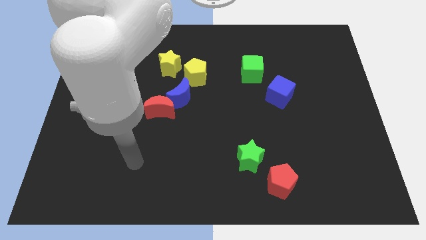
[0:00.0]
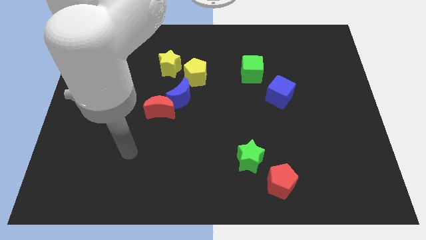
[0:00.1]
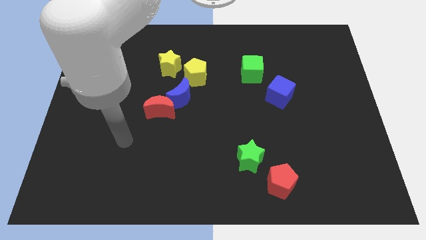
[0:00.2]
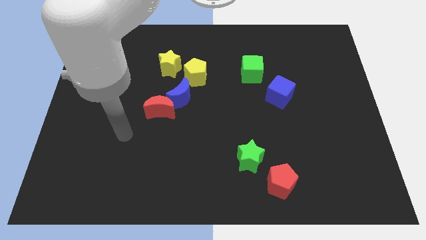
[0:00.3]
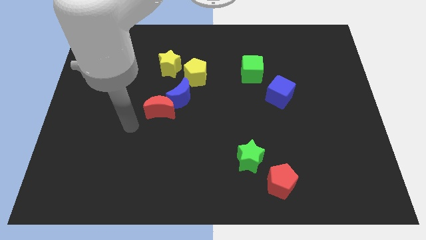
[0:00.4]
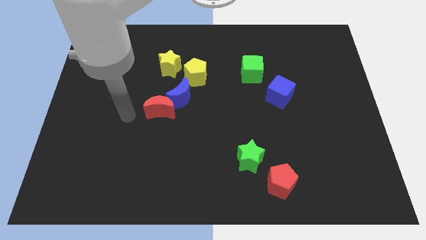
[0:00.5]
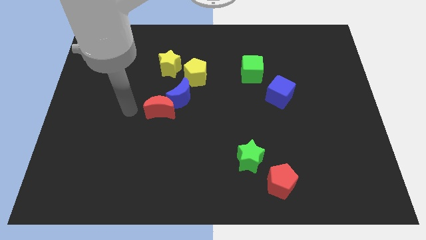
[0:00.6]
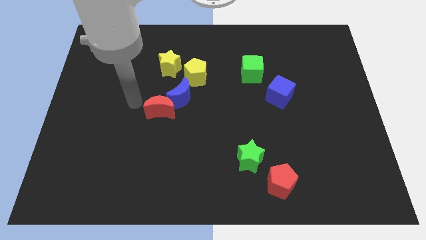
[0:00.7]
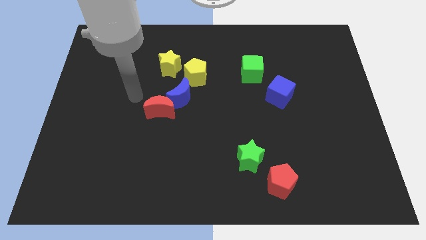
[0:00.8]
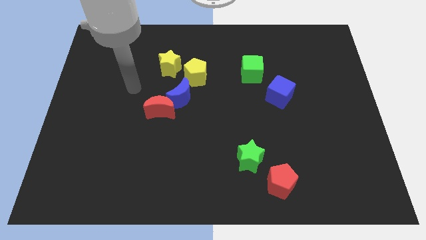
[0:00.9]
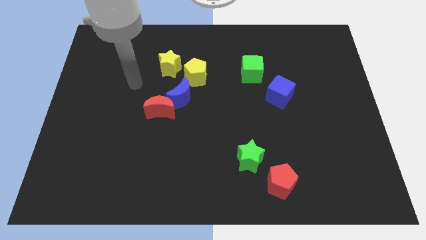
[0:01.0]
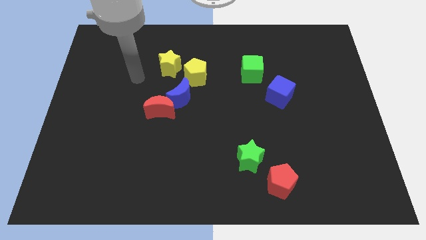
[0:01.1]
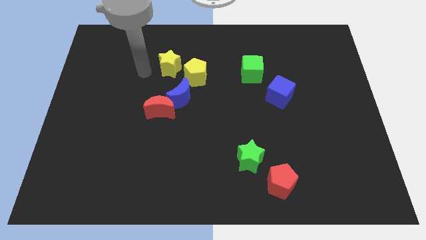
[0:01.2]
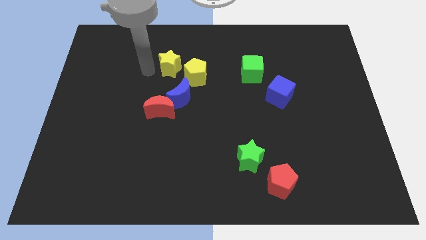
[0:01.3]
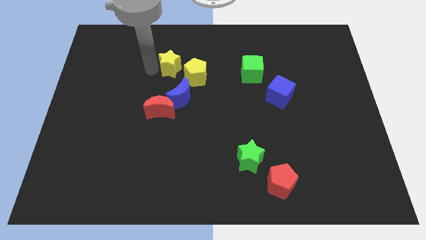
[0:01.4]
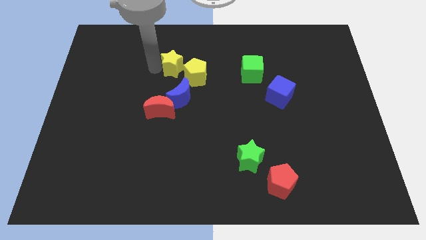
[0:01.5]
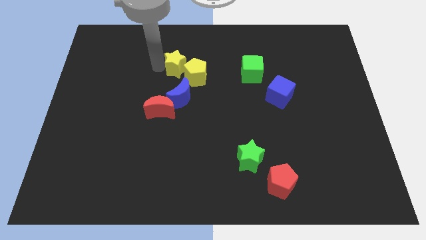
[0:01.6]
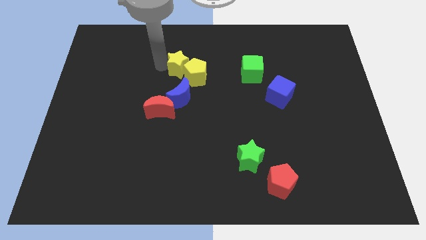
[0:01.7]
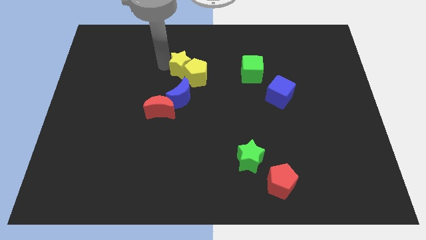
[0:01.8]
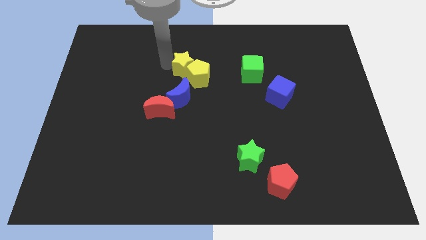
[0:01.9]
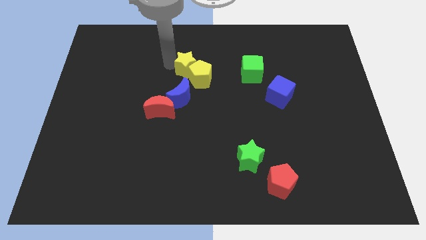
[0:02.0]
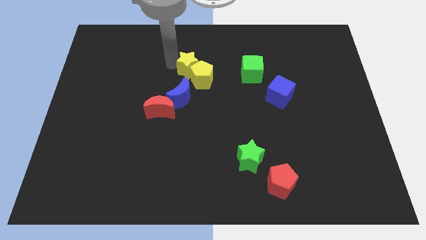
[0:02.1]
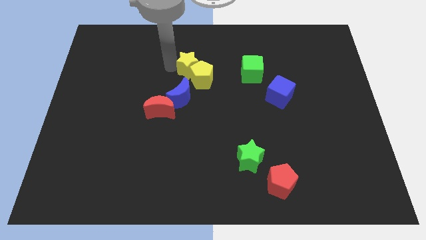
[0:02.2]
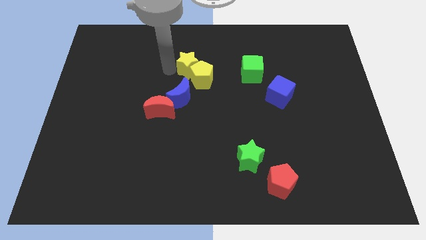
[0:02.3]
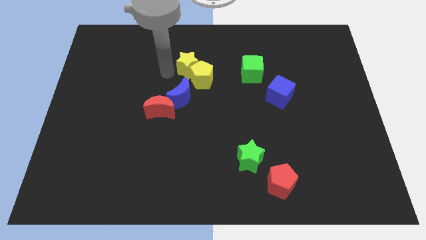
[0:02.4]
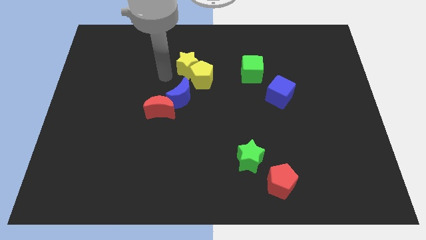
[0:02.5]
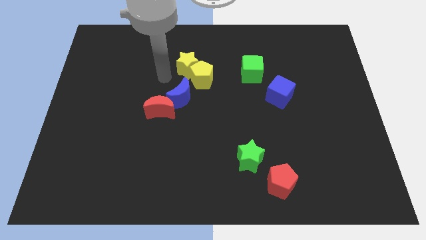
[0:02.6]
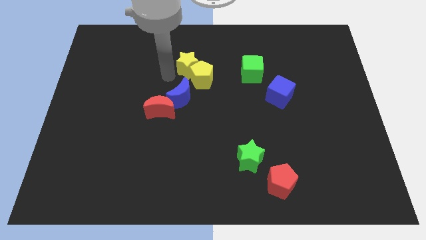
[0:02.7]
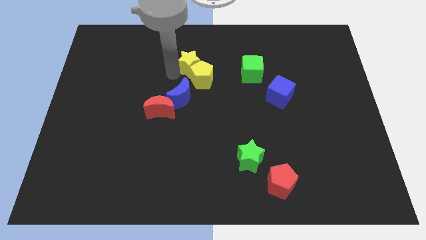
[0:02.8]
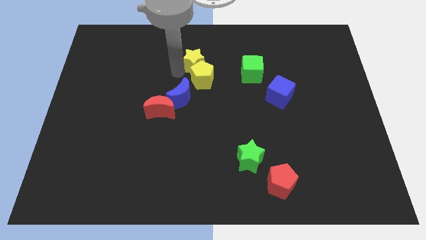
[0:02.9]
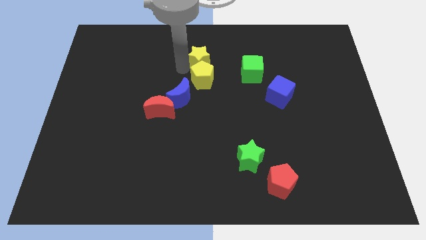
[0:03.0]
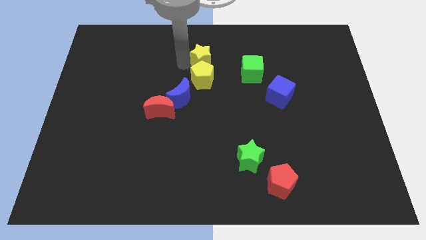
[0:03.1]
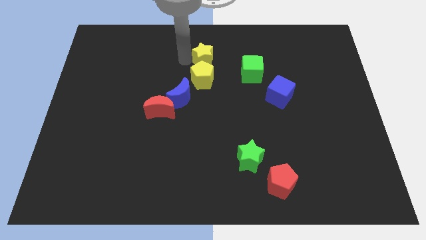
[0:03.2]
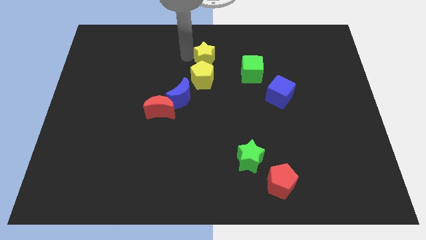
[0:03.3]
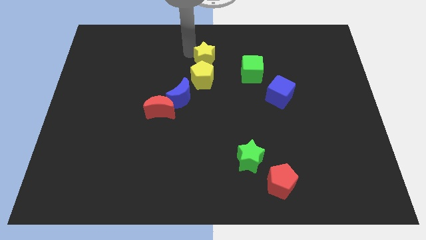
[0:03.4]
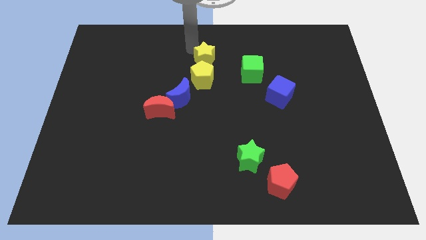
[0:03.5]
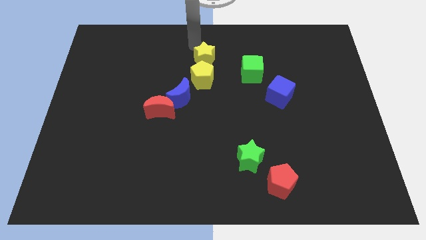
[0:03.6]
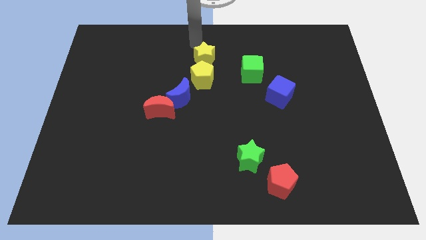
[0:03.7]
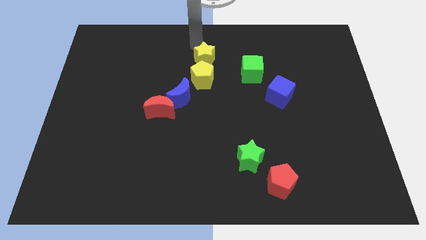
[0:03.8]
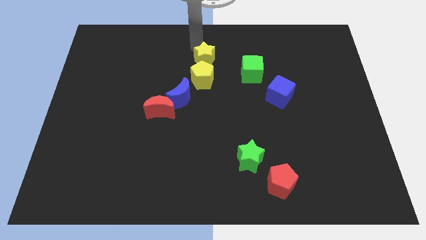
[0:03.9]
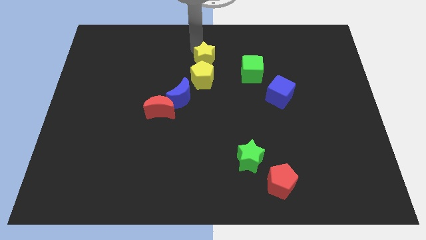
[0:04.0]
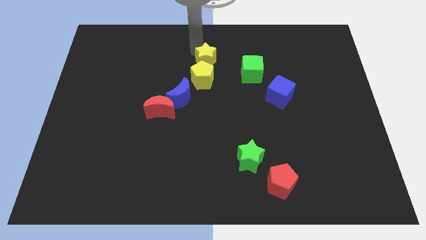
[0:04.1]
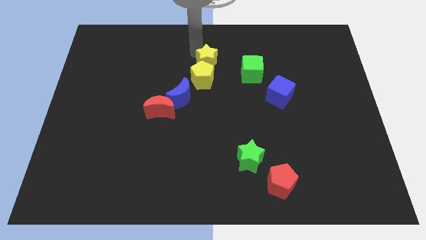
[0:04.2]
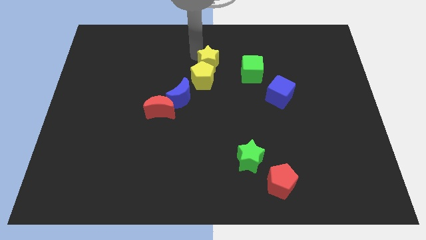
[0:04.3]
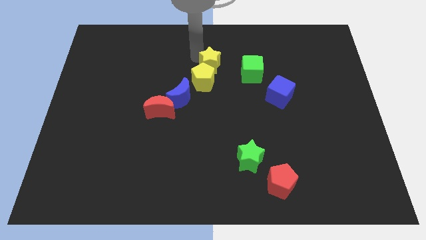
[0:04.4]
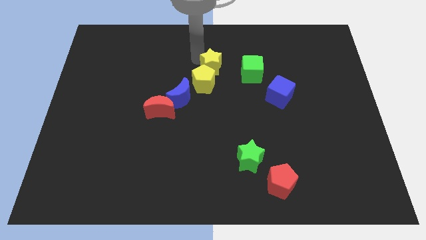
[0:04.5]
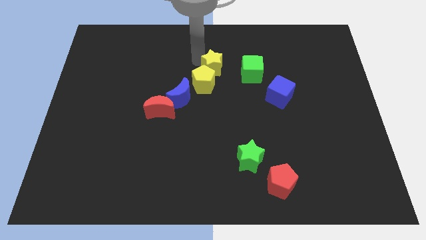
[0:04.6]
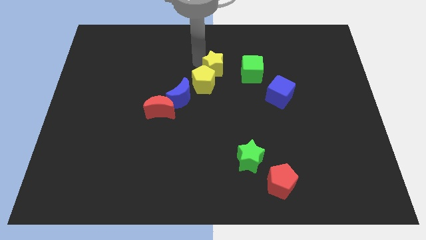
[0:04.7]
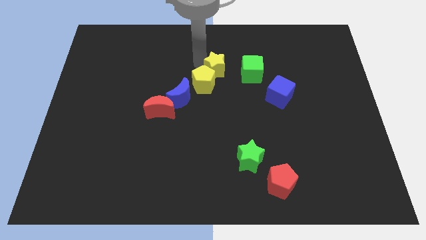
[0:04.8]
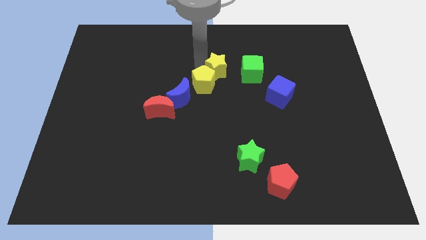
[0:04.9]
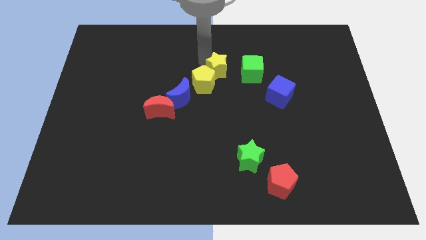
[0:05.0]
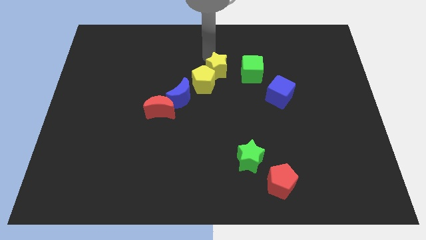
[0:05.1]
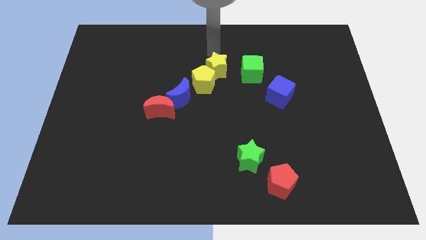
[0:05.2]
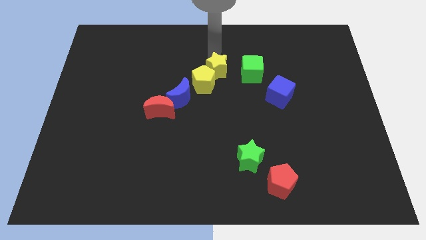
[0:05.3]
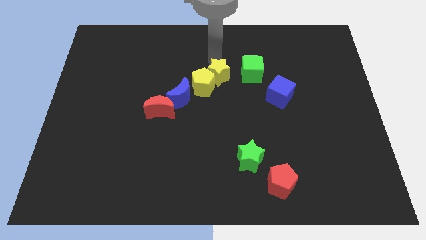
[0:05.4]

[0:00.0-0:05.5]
move the yellow star diagonally down and to the right somewhat

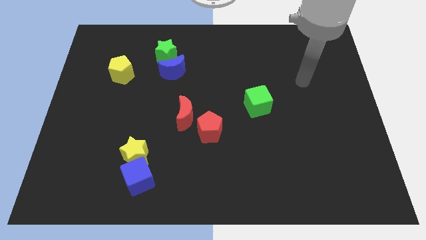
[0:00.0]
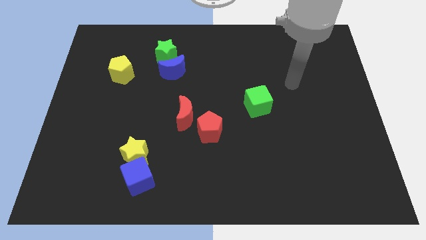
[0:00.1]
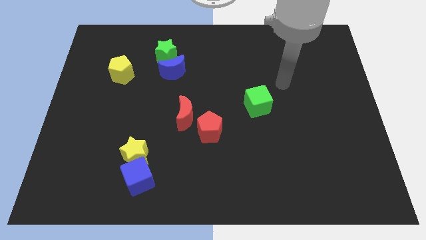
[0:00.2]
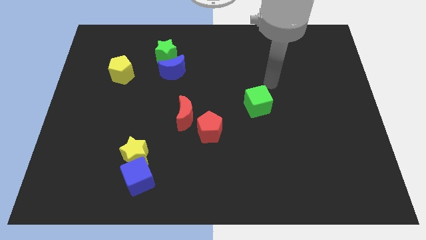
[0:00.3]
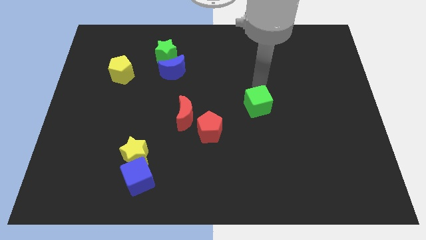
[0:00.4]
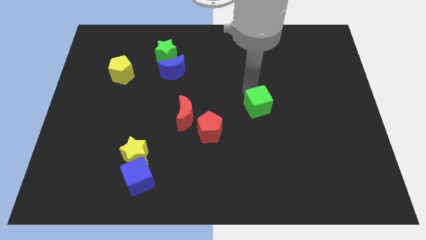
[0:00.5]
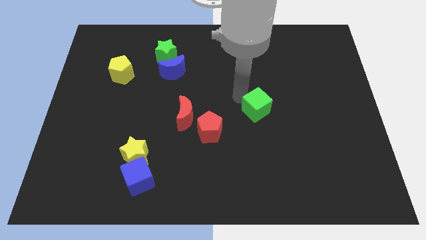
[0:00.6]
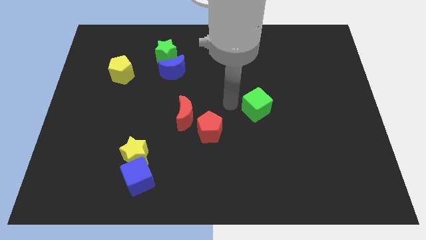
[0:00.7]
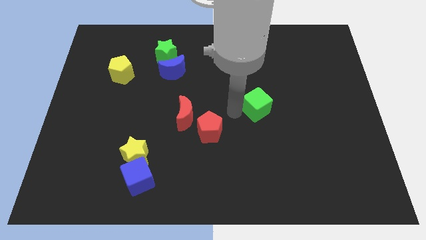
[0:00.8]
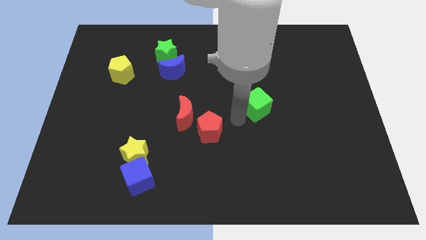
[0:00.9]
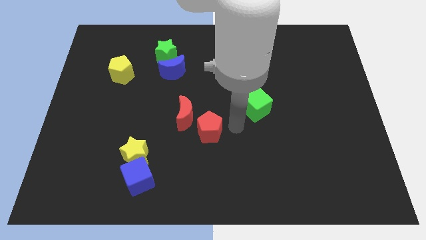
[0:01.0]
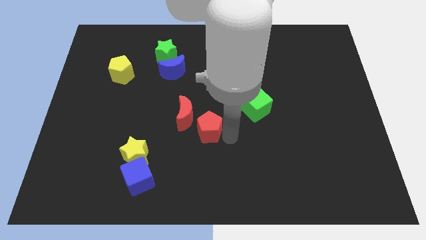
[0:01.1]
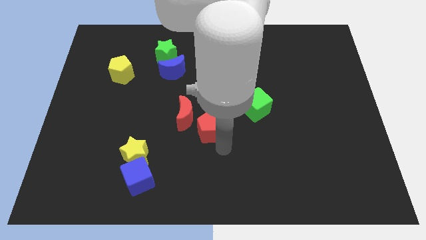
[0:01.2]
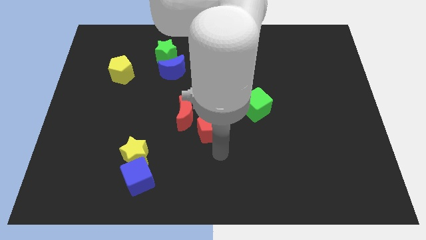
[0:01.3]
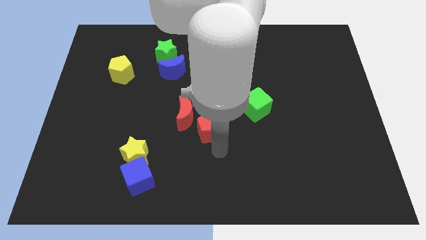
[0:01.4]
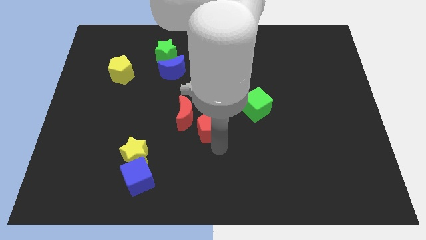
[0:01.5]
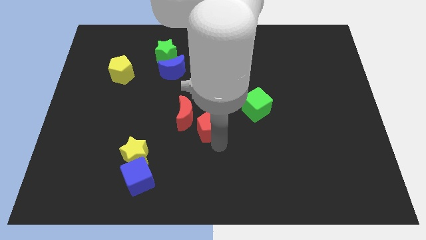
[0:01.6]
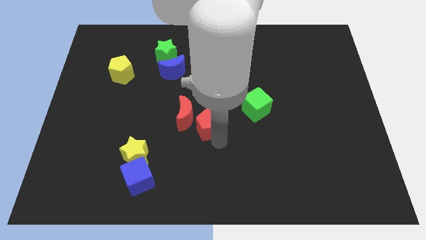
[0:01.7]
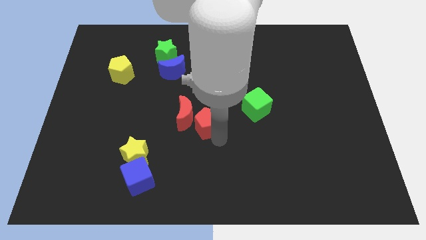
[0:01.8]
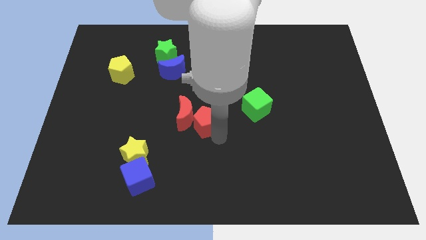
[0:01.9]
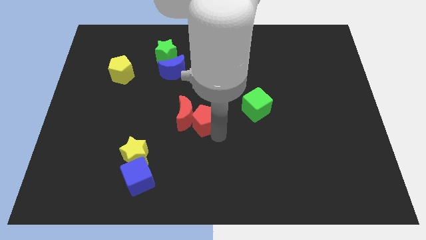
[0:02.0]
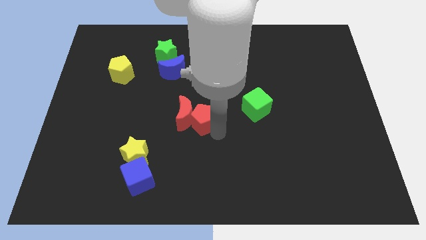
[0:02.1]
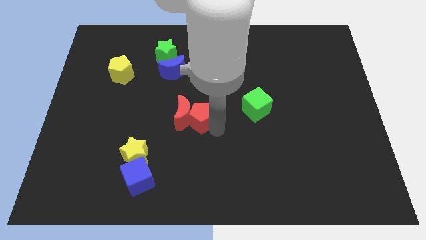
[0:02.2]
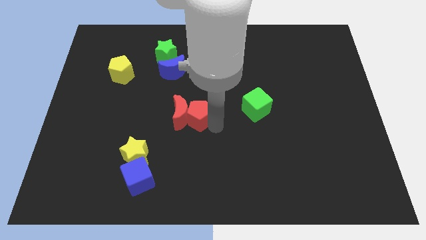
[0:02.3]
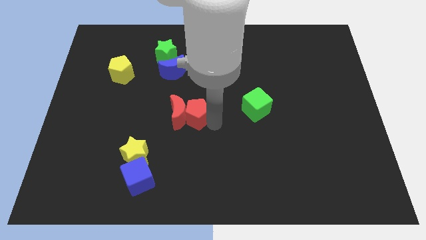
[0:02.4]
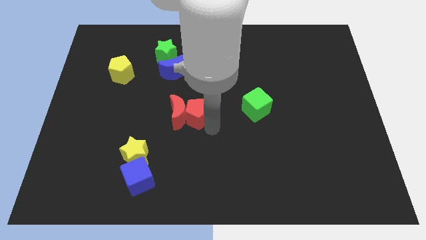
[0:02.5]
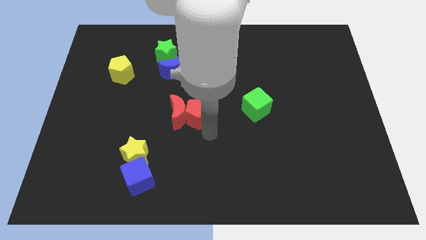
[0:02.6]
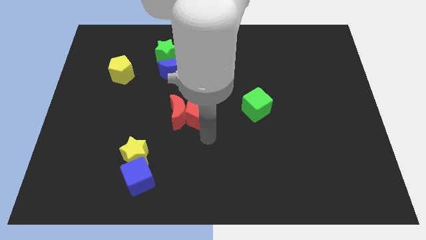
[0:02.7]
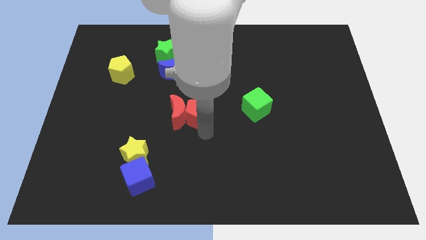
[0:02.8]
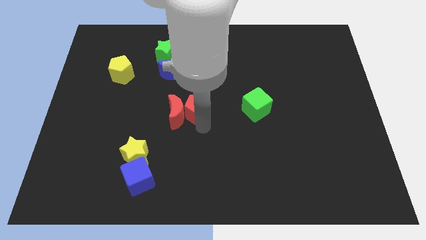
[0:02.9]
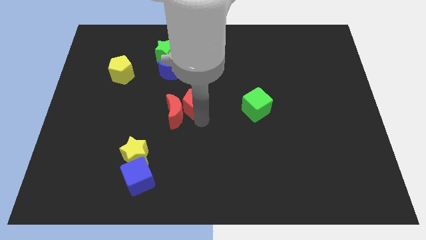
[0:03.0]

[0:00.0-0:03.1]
slide the red pentagon somewhat upwards and then left

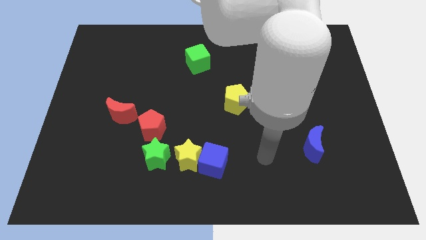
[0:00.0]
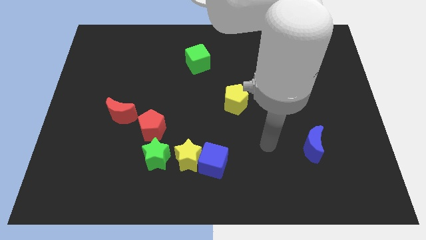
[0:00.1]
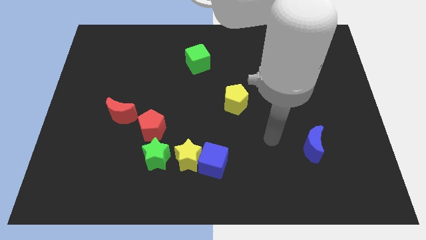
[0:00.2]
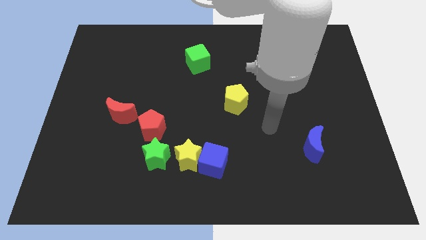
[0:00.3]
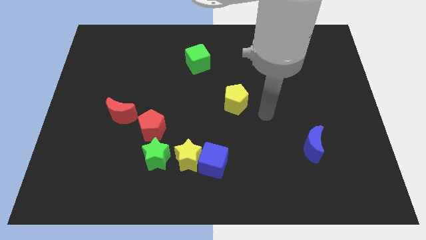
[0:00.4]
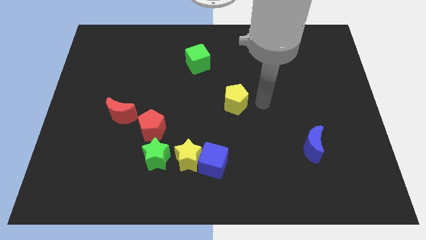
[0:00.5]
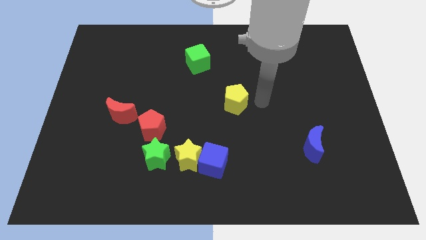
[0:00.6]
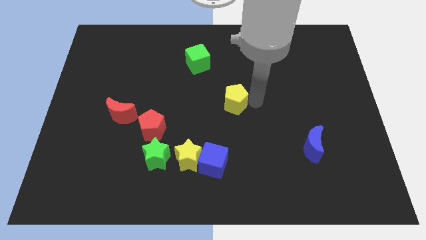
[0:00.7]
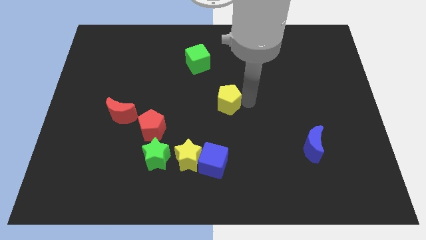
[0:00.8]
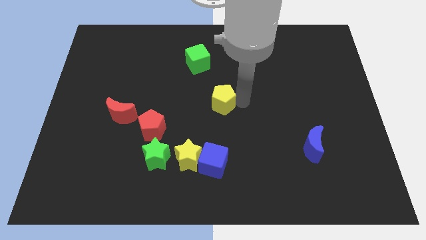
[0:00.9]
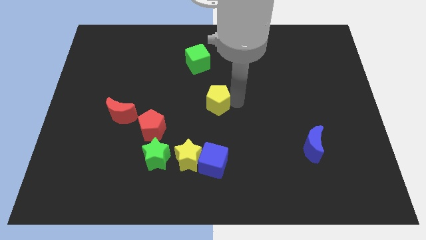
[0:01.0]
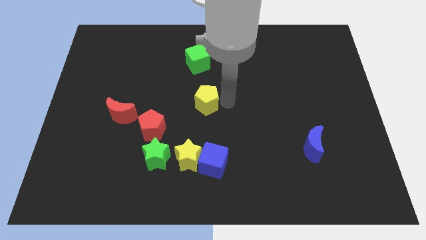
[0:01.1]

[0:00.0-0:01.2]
slide the yellow pentagon to the left somewhat
